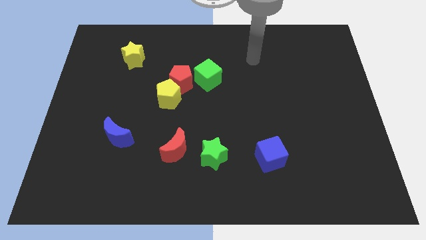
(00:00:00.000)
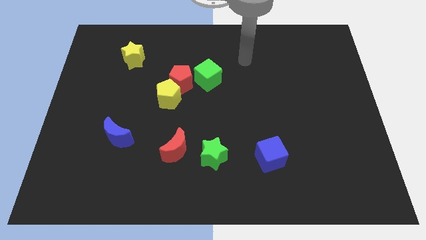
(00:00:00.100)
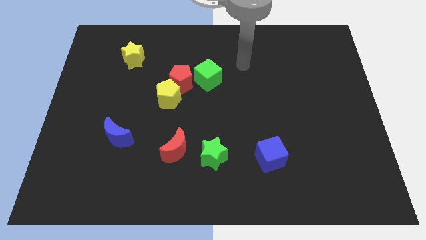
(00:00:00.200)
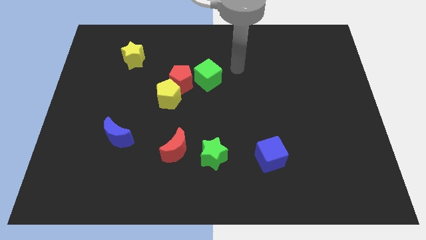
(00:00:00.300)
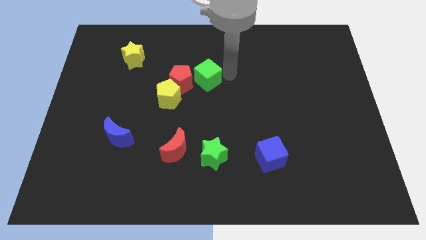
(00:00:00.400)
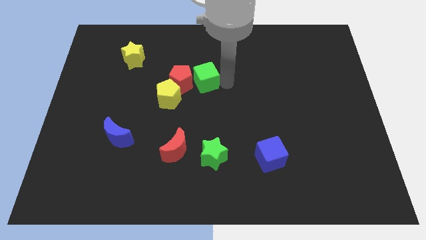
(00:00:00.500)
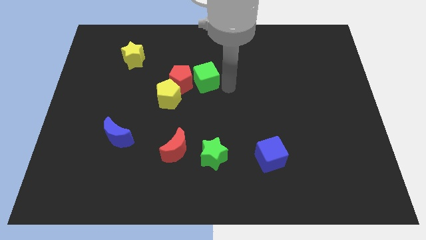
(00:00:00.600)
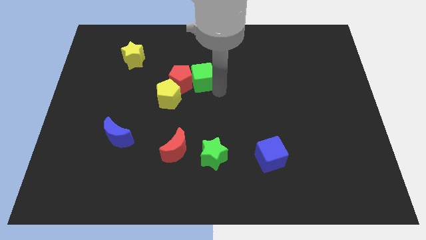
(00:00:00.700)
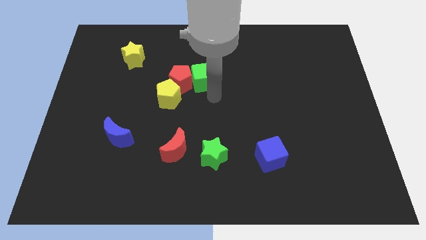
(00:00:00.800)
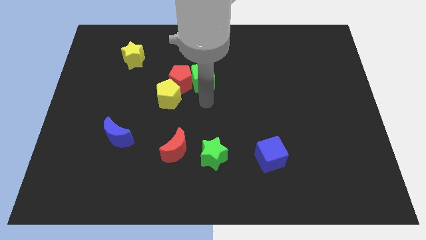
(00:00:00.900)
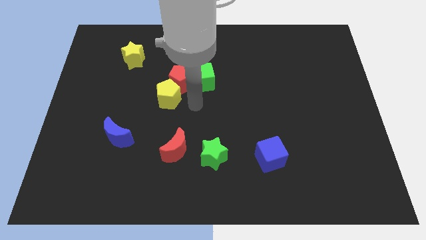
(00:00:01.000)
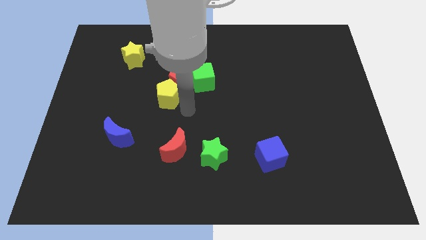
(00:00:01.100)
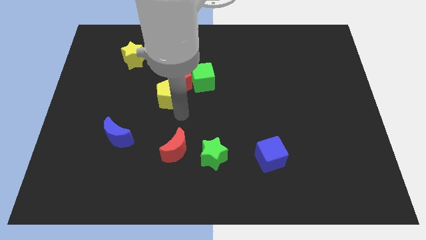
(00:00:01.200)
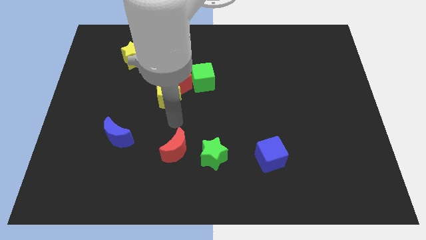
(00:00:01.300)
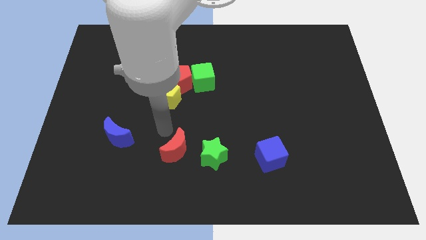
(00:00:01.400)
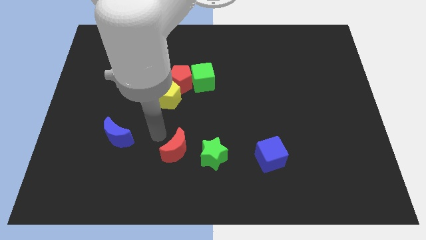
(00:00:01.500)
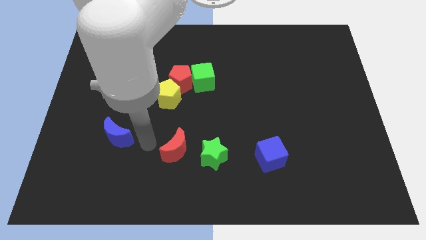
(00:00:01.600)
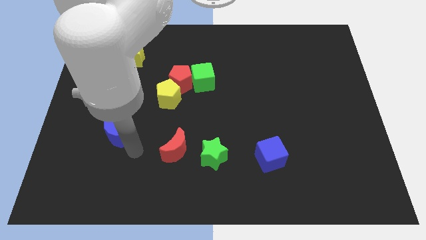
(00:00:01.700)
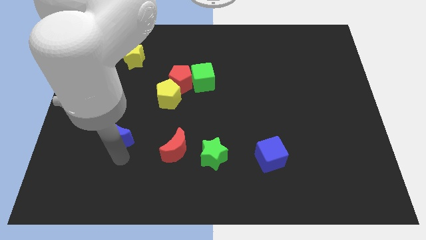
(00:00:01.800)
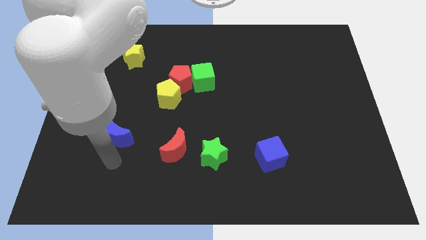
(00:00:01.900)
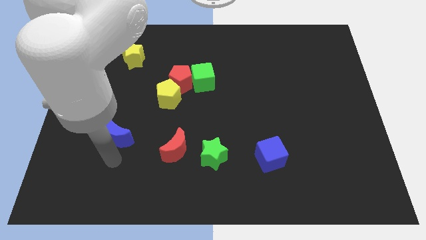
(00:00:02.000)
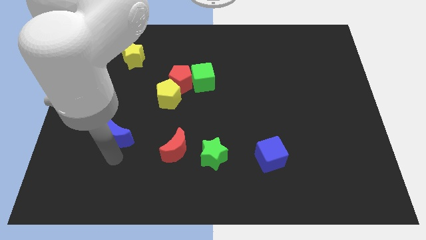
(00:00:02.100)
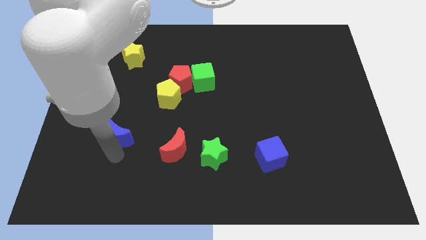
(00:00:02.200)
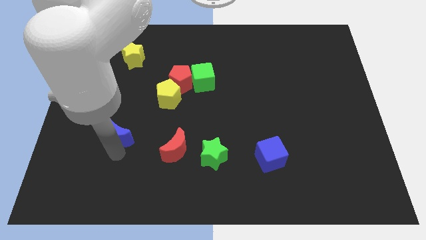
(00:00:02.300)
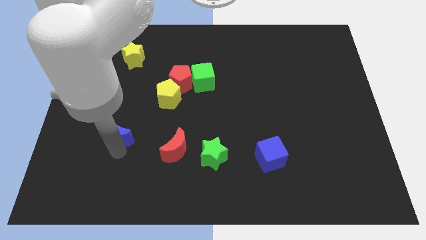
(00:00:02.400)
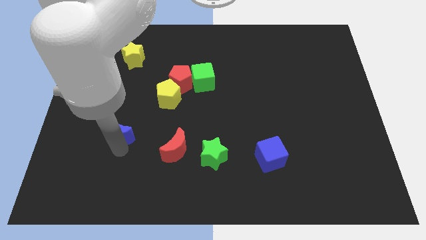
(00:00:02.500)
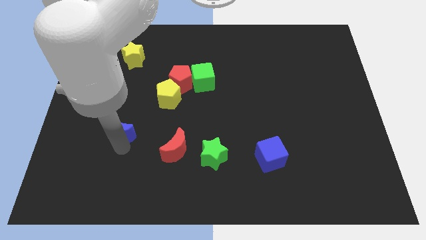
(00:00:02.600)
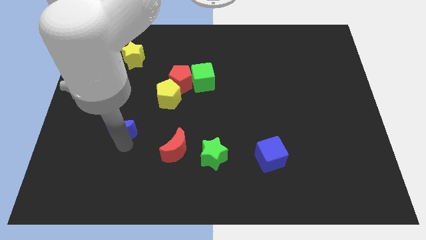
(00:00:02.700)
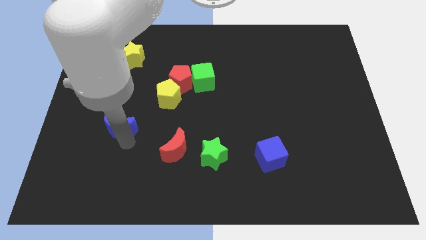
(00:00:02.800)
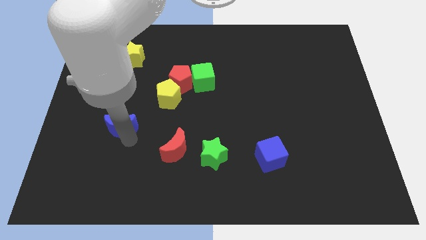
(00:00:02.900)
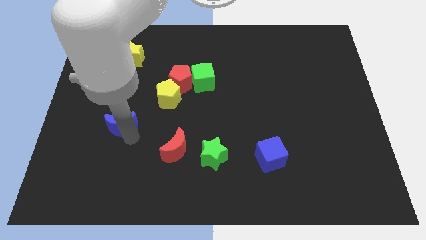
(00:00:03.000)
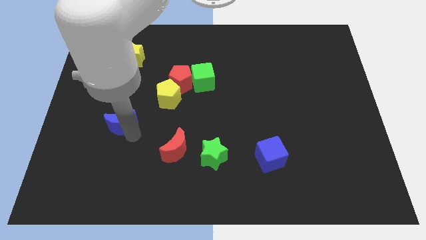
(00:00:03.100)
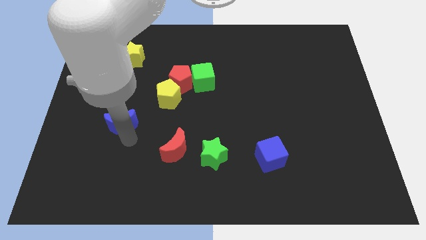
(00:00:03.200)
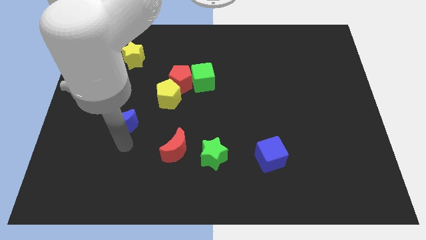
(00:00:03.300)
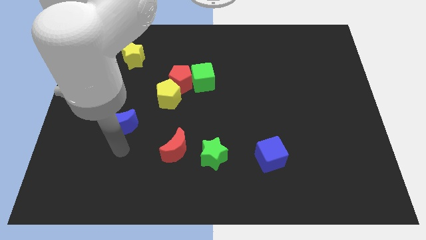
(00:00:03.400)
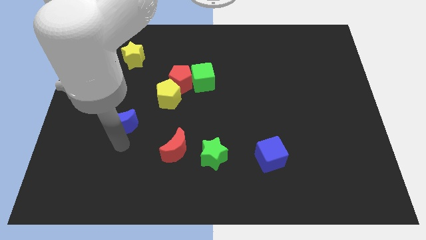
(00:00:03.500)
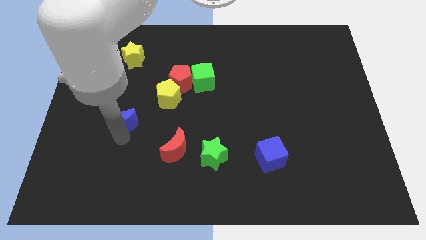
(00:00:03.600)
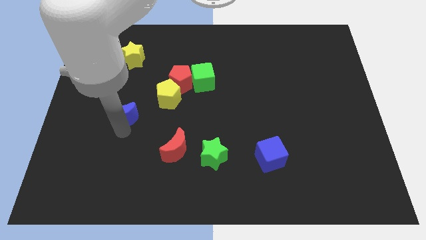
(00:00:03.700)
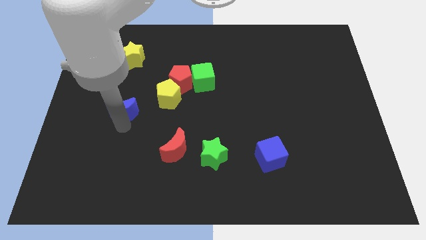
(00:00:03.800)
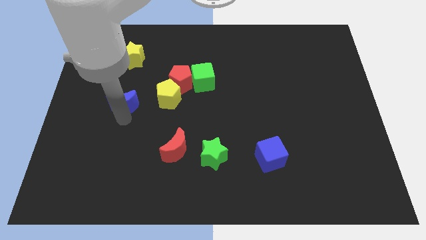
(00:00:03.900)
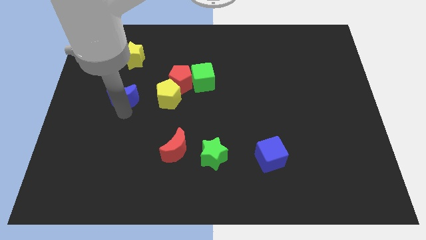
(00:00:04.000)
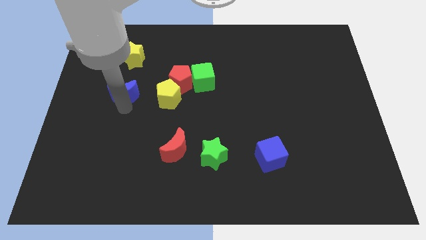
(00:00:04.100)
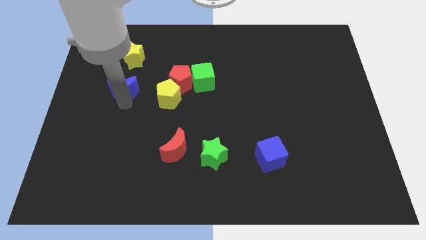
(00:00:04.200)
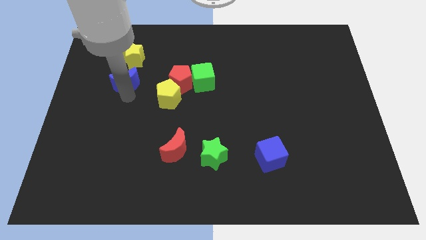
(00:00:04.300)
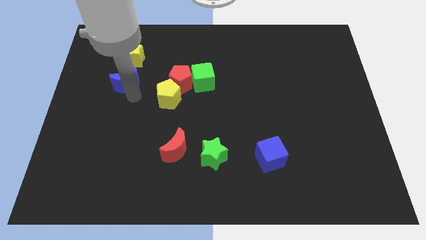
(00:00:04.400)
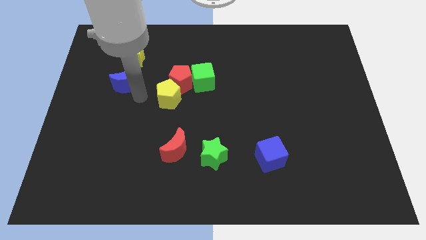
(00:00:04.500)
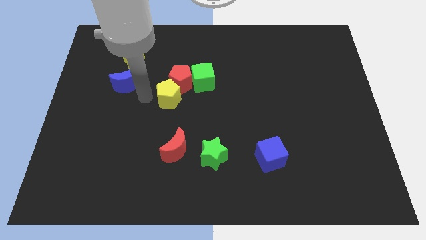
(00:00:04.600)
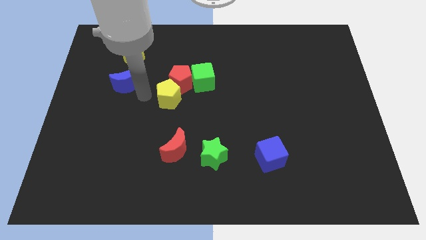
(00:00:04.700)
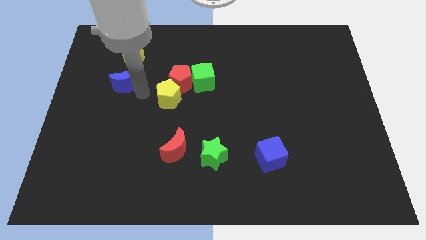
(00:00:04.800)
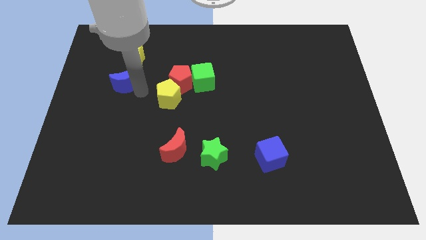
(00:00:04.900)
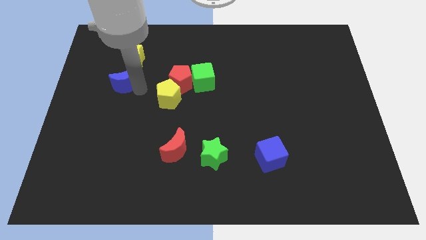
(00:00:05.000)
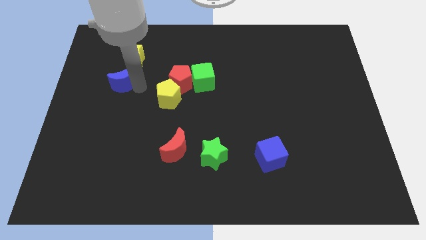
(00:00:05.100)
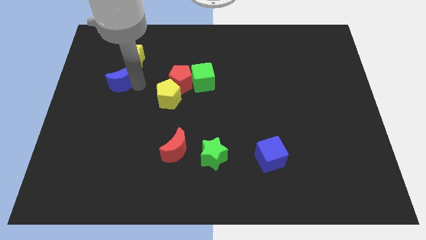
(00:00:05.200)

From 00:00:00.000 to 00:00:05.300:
push the blue moon to the bottom left of the yellow star

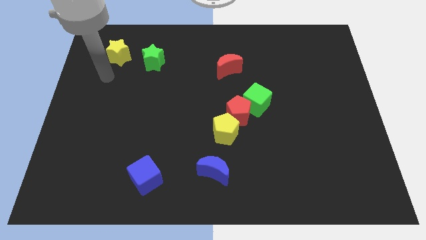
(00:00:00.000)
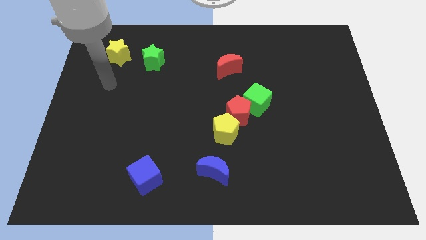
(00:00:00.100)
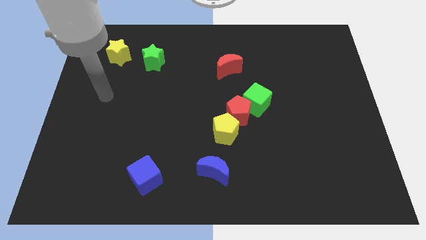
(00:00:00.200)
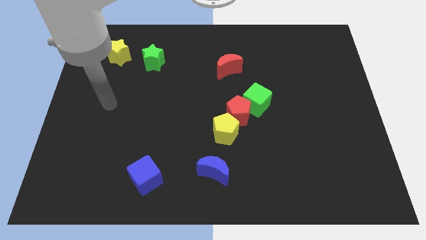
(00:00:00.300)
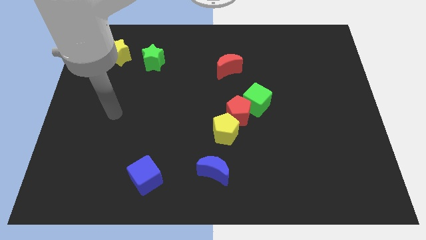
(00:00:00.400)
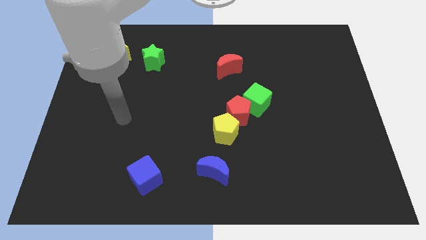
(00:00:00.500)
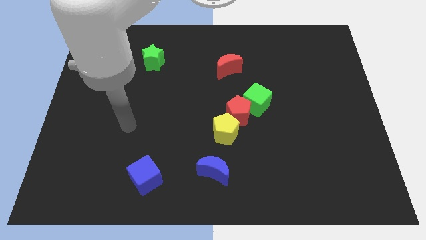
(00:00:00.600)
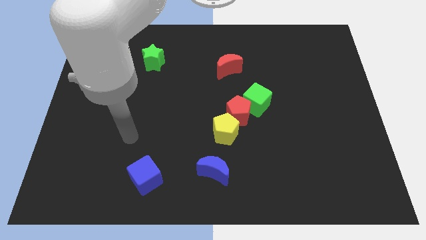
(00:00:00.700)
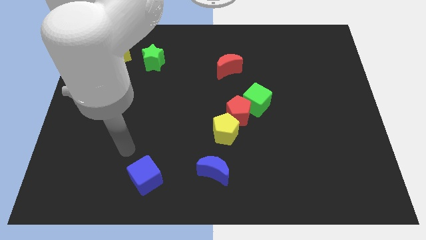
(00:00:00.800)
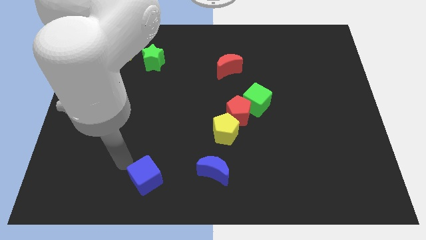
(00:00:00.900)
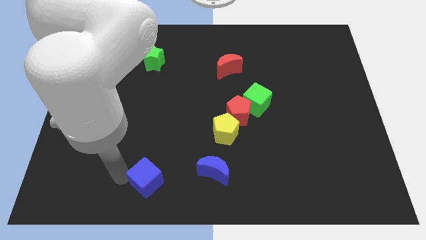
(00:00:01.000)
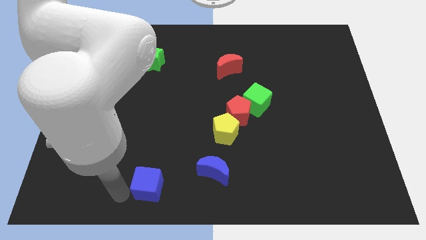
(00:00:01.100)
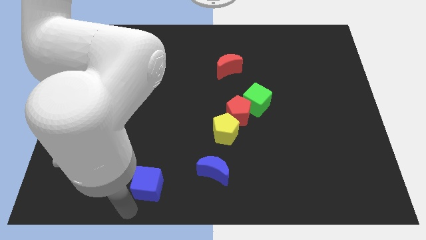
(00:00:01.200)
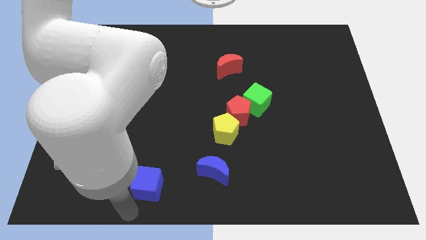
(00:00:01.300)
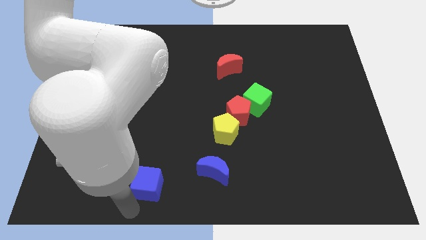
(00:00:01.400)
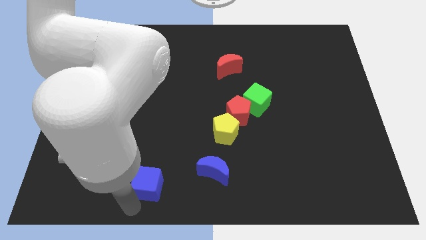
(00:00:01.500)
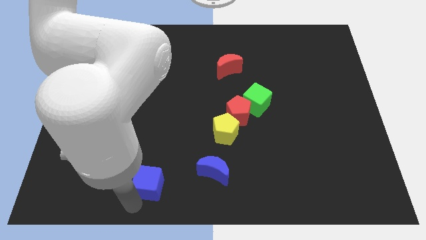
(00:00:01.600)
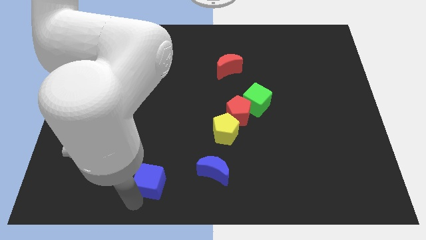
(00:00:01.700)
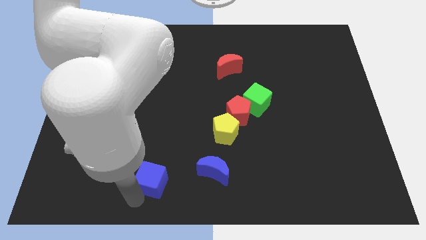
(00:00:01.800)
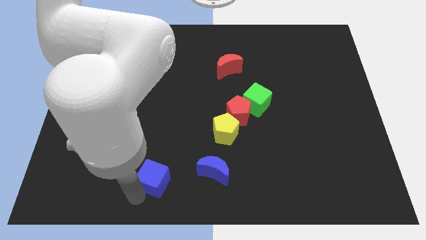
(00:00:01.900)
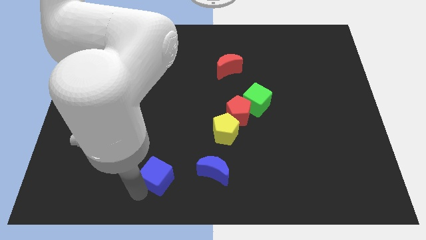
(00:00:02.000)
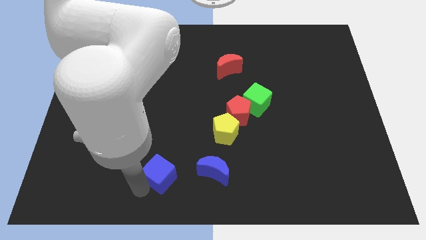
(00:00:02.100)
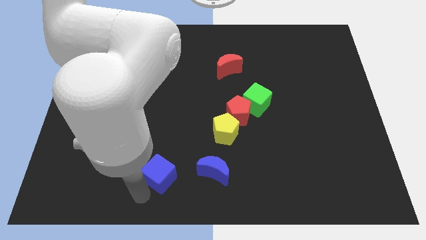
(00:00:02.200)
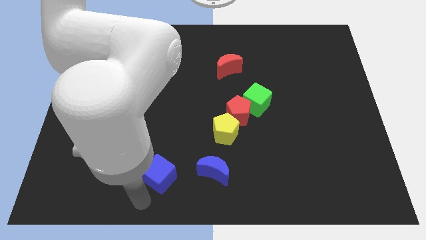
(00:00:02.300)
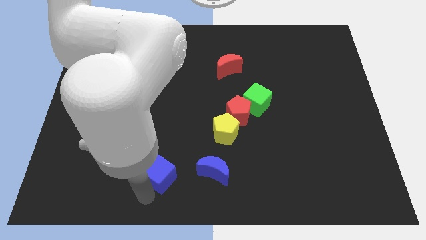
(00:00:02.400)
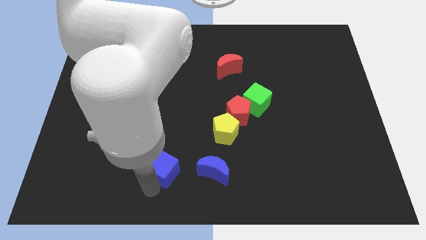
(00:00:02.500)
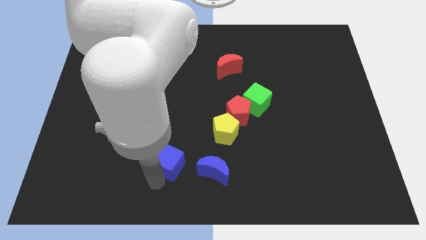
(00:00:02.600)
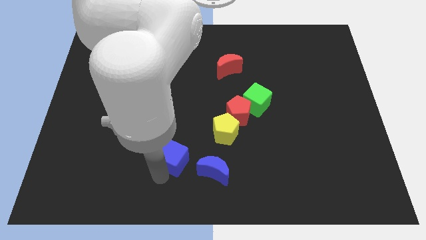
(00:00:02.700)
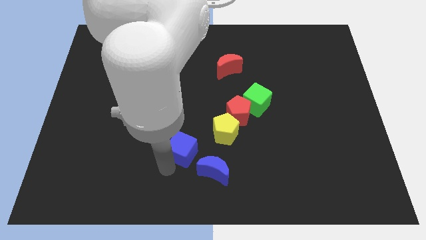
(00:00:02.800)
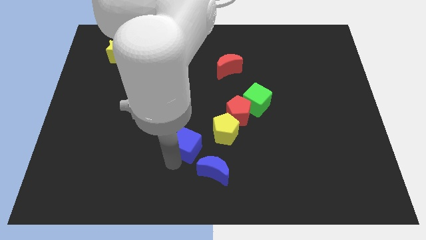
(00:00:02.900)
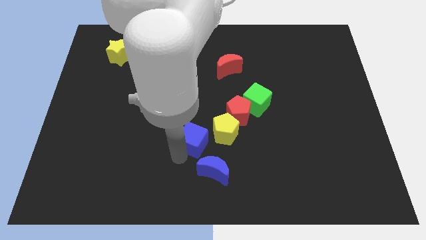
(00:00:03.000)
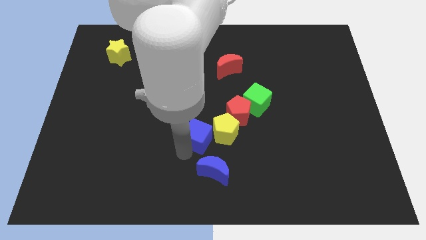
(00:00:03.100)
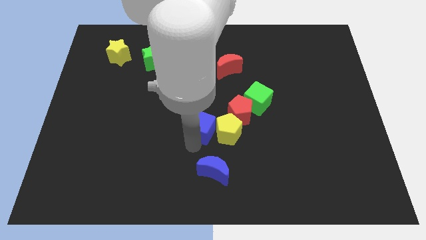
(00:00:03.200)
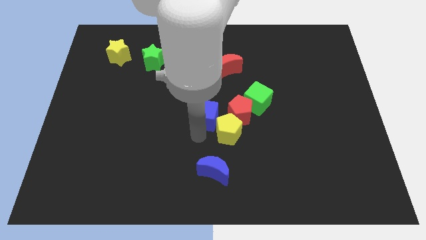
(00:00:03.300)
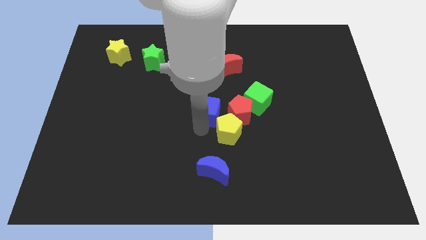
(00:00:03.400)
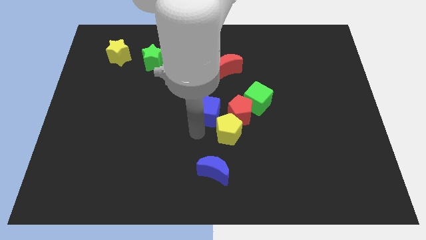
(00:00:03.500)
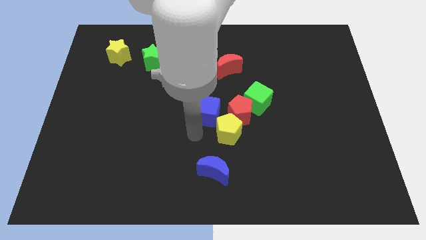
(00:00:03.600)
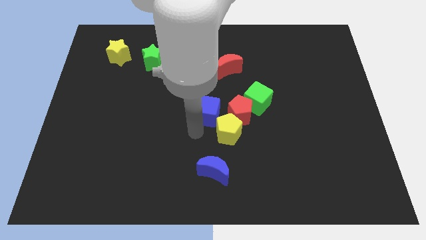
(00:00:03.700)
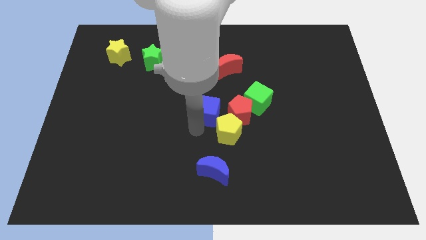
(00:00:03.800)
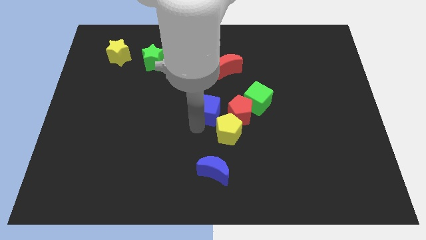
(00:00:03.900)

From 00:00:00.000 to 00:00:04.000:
put the blue cube to the top left side of the red pentagon
